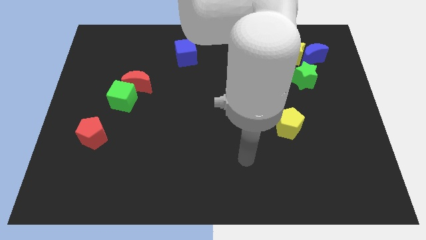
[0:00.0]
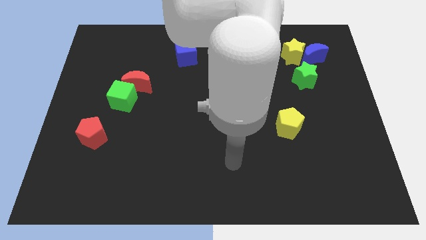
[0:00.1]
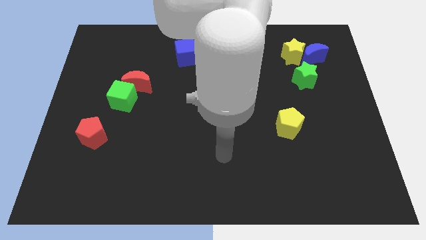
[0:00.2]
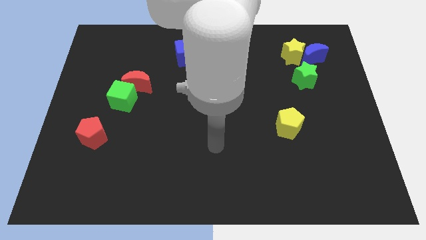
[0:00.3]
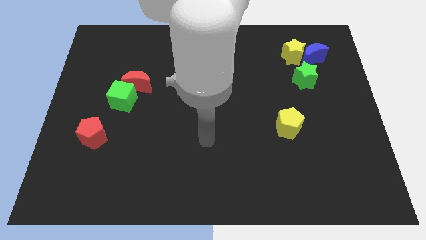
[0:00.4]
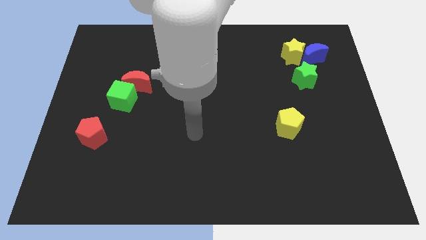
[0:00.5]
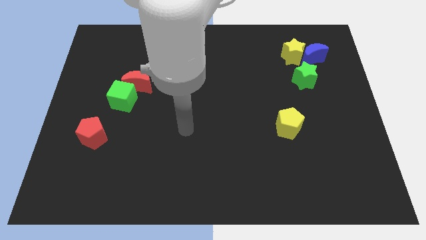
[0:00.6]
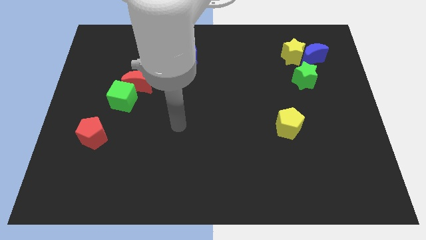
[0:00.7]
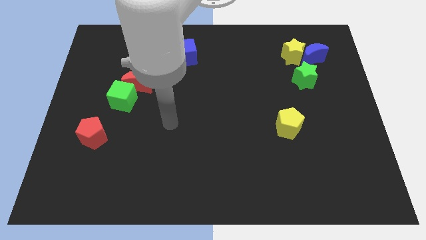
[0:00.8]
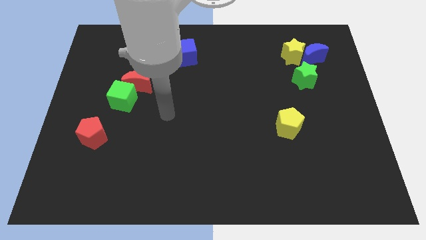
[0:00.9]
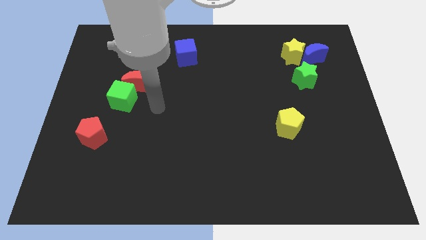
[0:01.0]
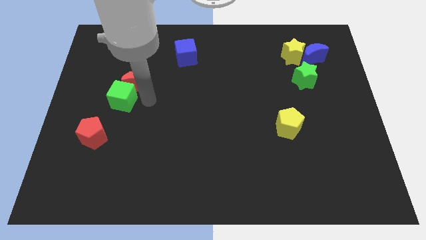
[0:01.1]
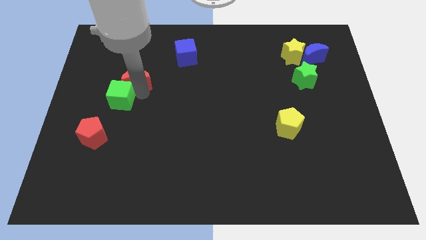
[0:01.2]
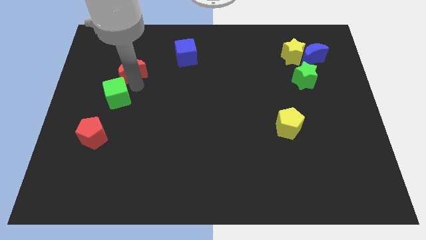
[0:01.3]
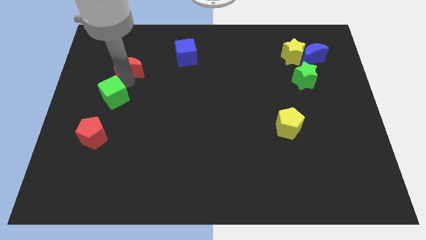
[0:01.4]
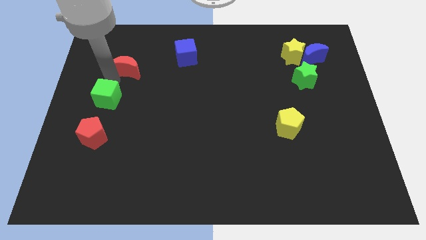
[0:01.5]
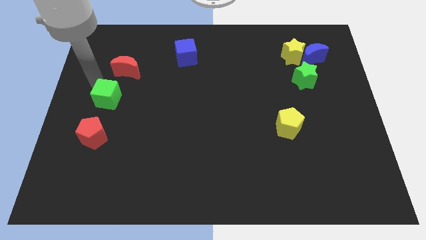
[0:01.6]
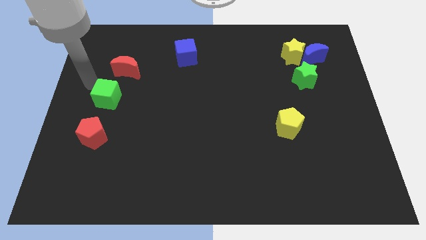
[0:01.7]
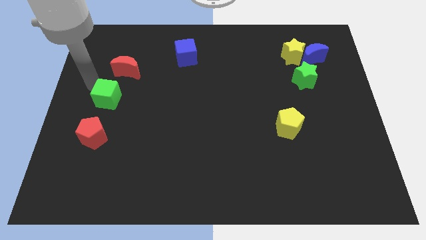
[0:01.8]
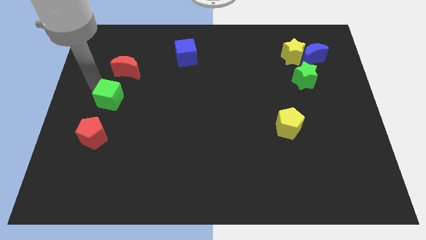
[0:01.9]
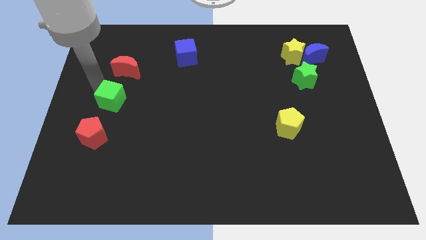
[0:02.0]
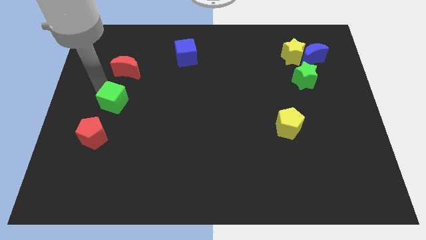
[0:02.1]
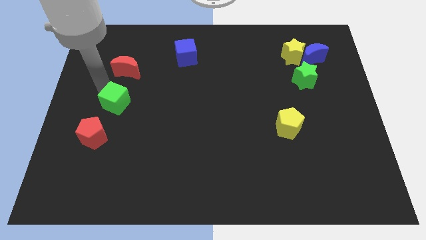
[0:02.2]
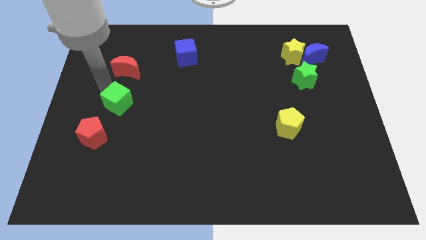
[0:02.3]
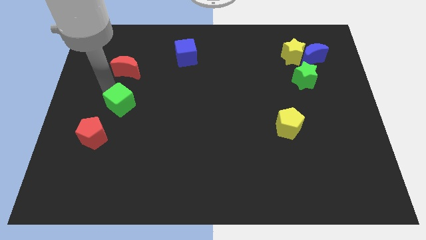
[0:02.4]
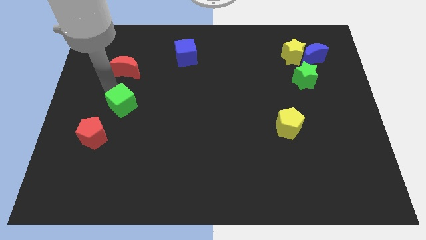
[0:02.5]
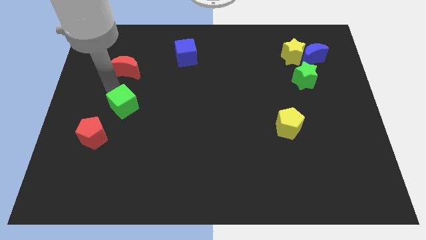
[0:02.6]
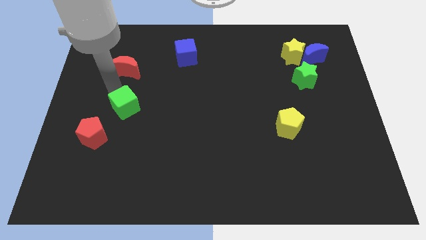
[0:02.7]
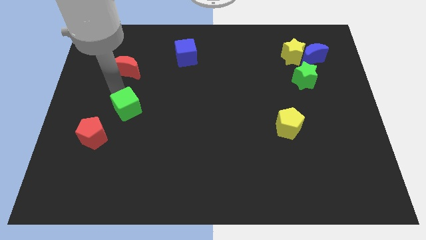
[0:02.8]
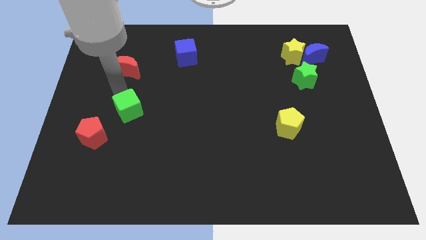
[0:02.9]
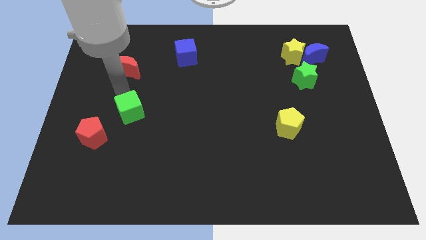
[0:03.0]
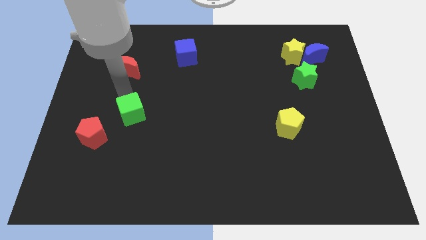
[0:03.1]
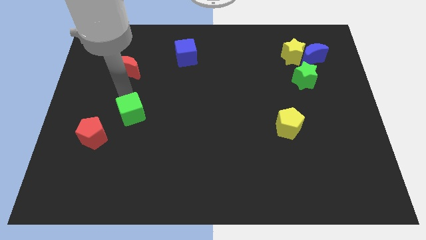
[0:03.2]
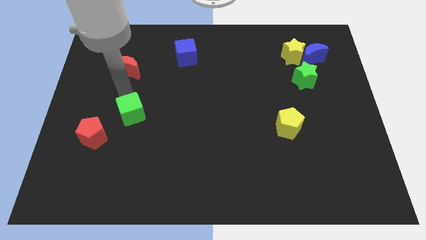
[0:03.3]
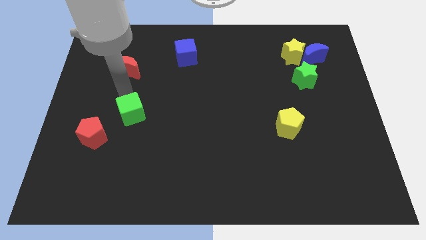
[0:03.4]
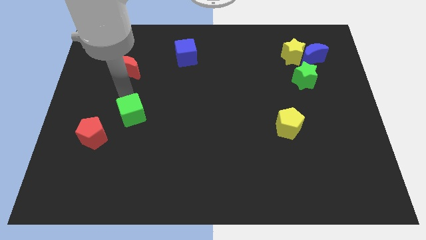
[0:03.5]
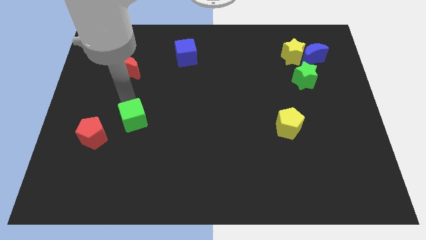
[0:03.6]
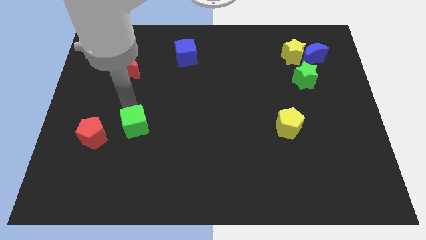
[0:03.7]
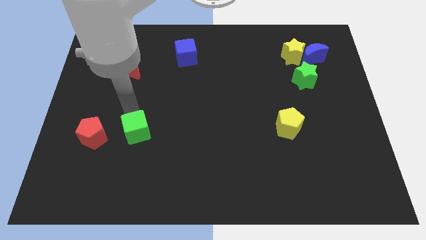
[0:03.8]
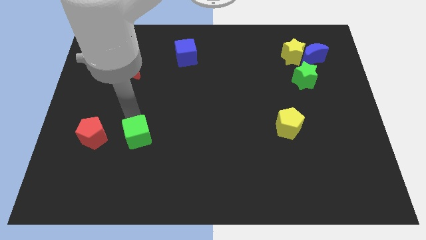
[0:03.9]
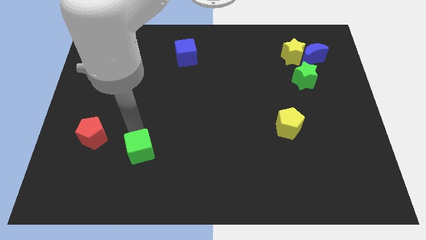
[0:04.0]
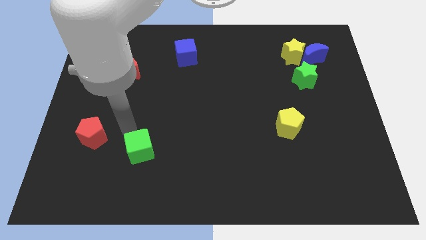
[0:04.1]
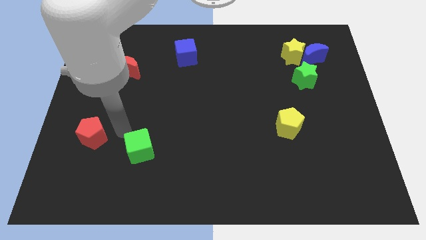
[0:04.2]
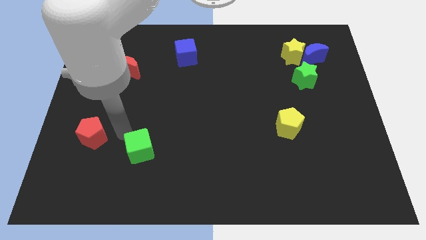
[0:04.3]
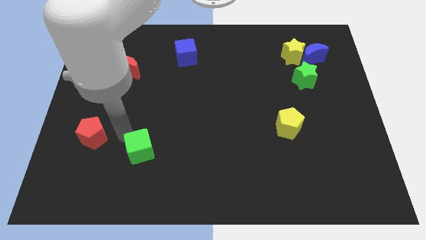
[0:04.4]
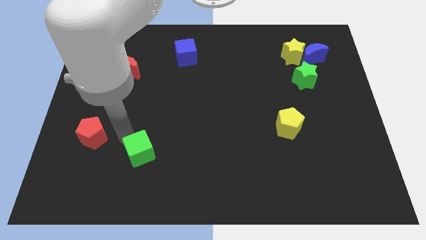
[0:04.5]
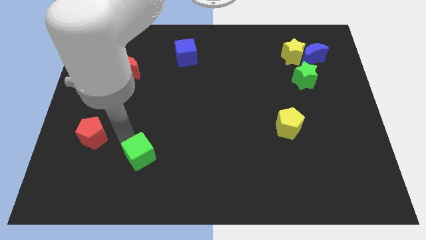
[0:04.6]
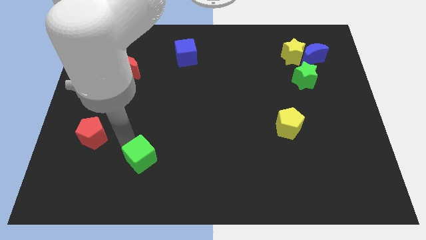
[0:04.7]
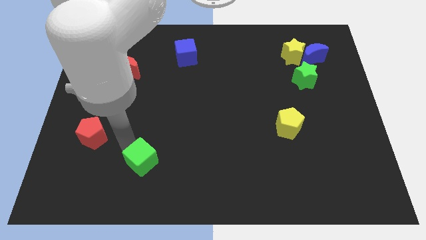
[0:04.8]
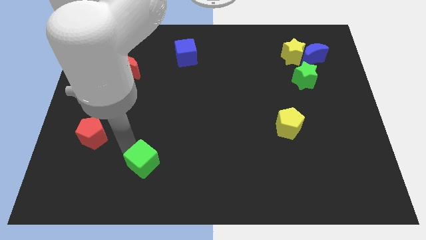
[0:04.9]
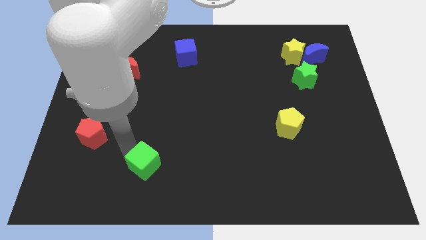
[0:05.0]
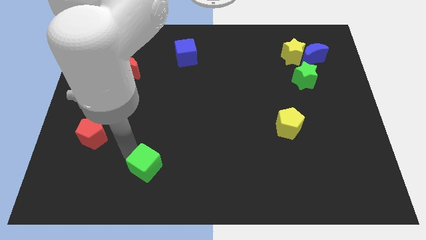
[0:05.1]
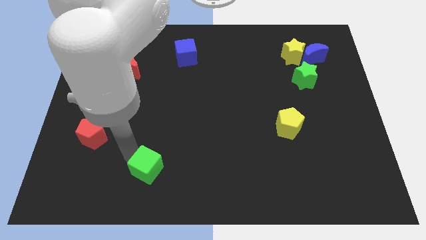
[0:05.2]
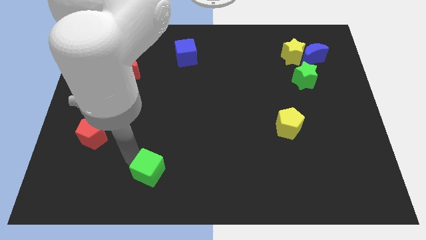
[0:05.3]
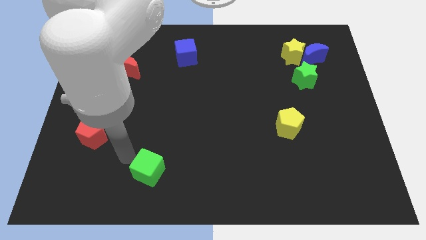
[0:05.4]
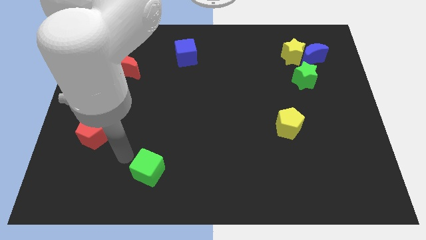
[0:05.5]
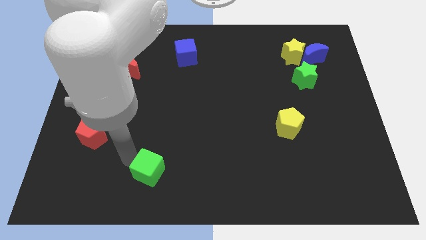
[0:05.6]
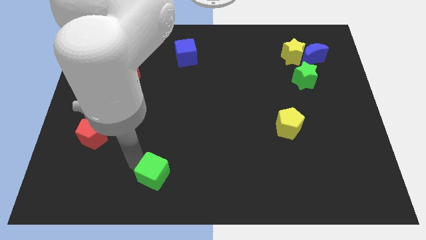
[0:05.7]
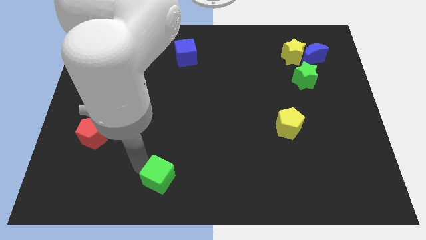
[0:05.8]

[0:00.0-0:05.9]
push the green cube to the bottom side
